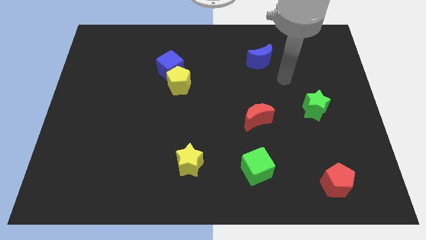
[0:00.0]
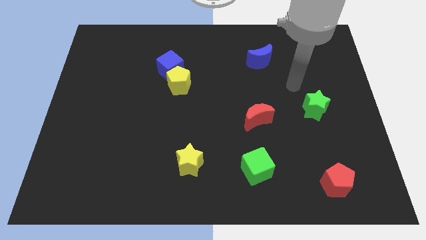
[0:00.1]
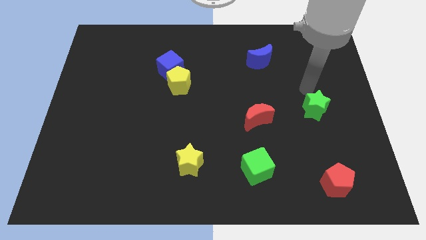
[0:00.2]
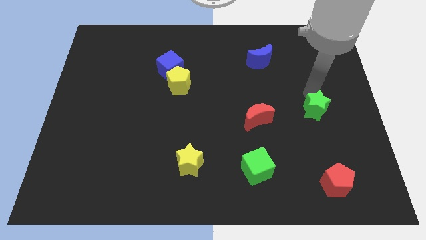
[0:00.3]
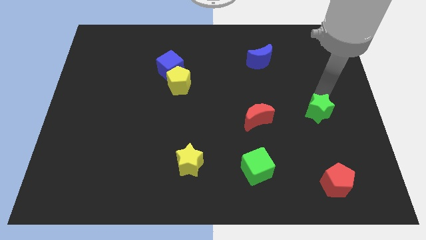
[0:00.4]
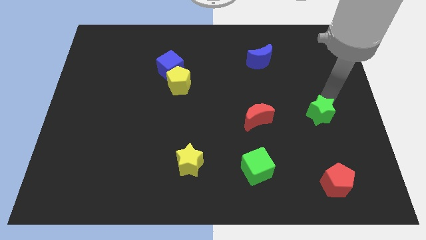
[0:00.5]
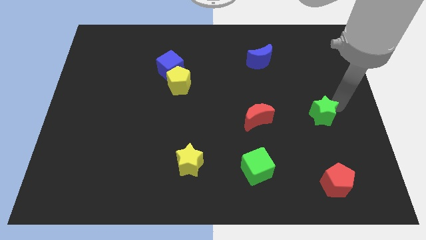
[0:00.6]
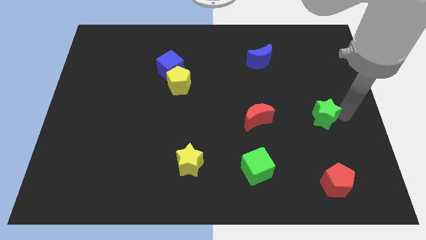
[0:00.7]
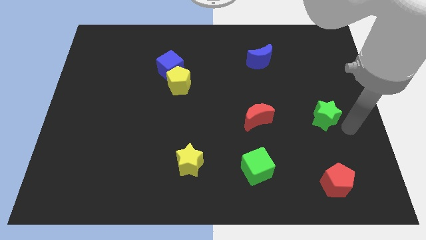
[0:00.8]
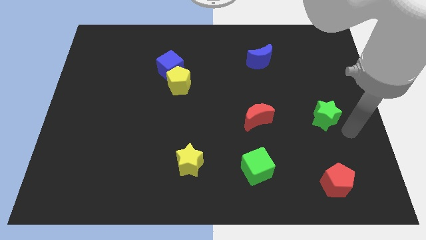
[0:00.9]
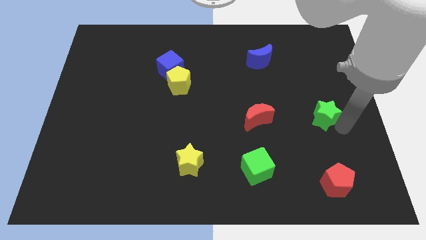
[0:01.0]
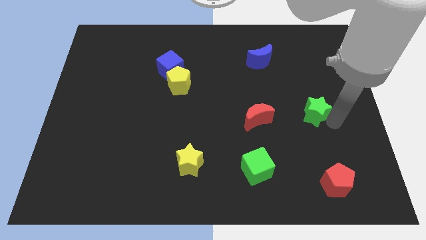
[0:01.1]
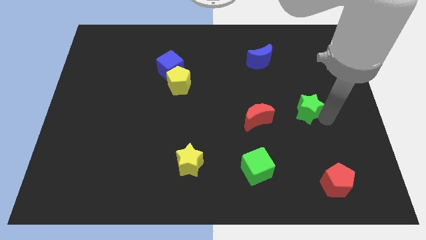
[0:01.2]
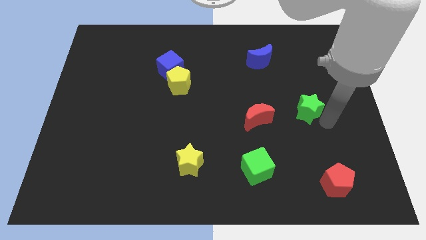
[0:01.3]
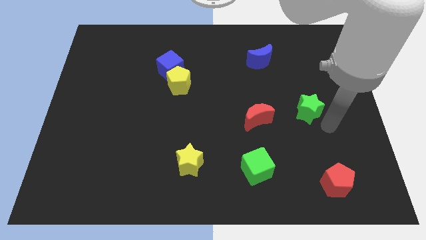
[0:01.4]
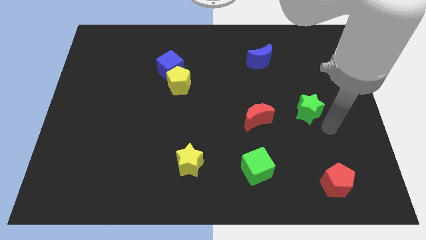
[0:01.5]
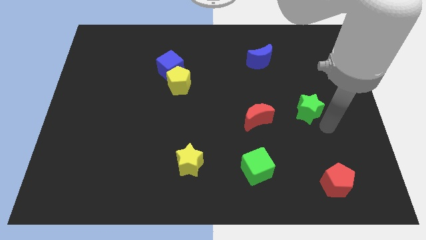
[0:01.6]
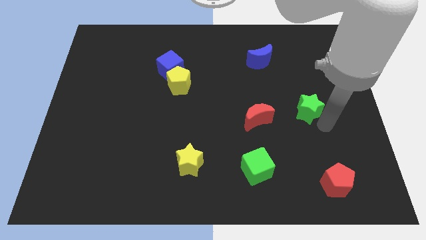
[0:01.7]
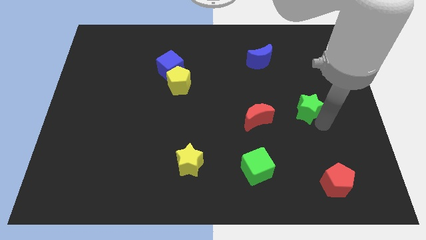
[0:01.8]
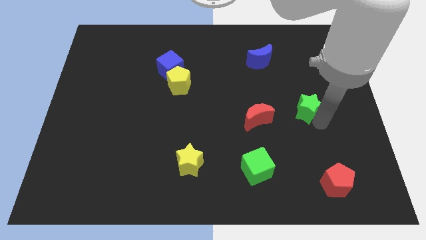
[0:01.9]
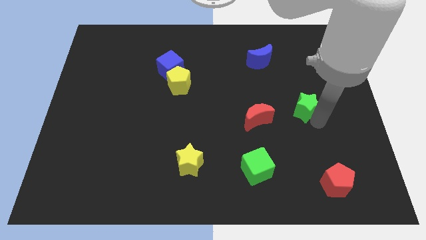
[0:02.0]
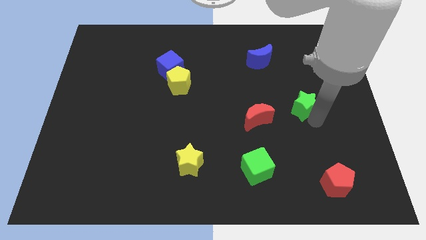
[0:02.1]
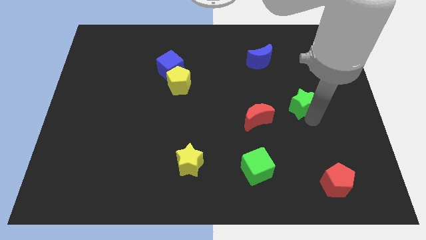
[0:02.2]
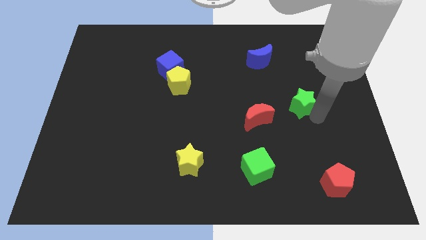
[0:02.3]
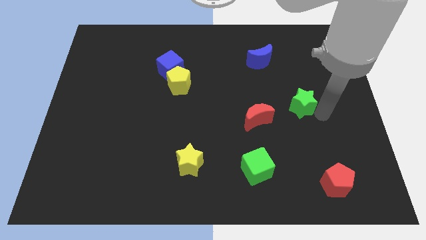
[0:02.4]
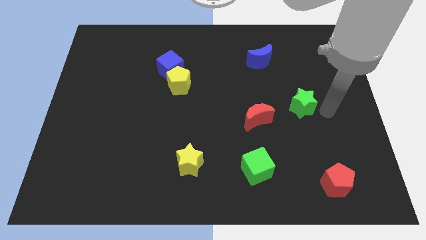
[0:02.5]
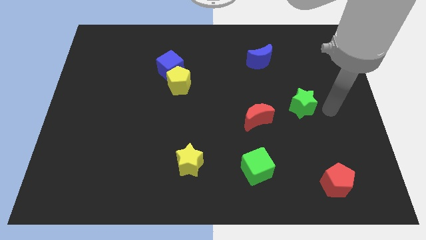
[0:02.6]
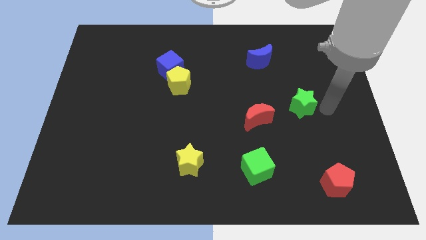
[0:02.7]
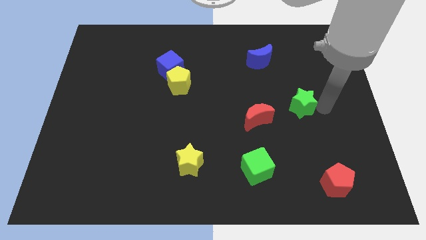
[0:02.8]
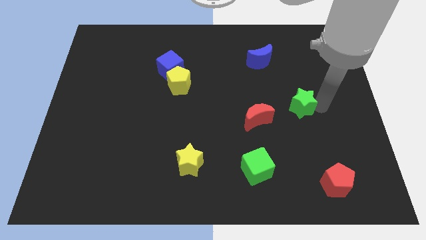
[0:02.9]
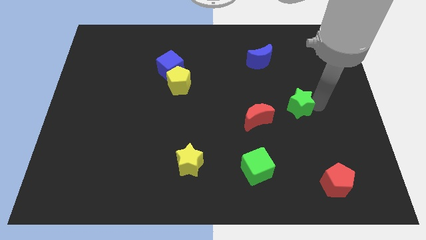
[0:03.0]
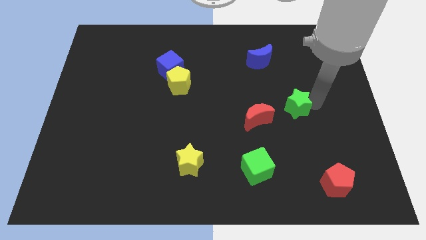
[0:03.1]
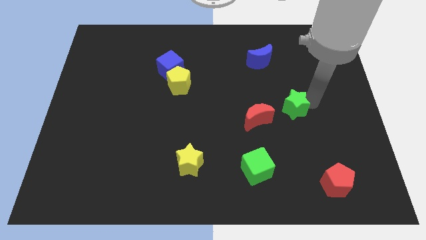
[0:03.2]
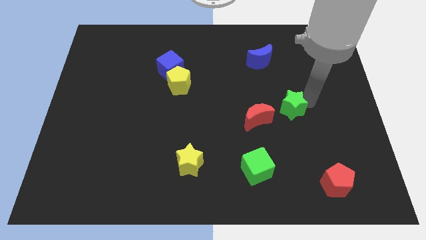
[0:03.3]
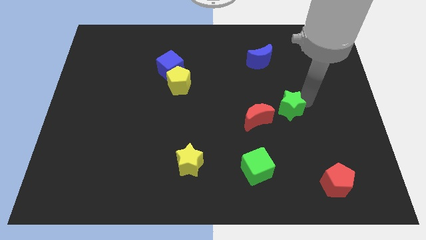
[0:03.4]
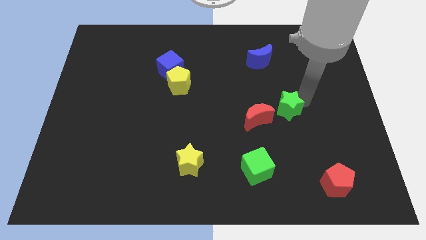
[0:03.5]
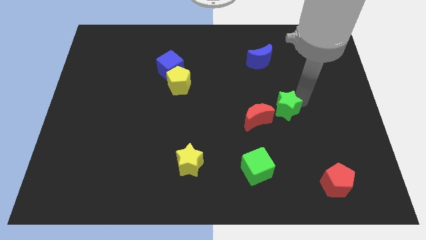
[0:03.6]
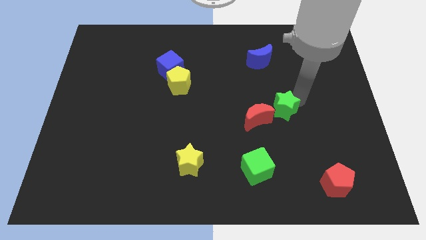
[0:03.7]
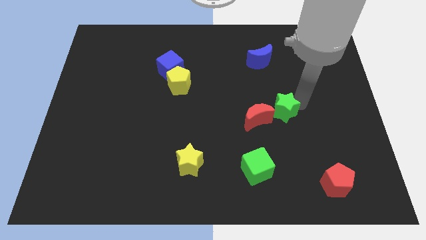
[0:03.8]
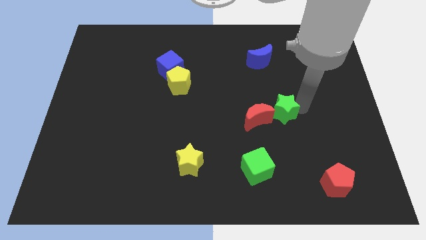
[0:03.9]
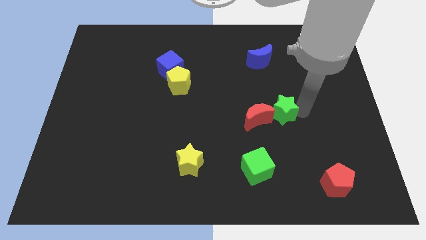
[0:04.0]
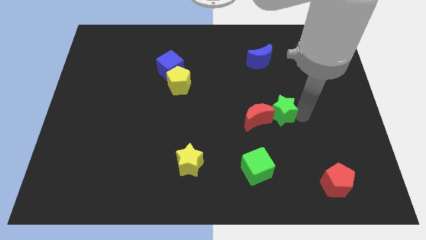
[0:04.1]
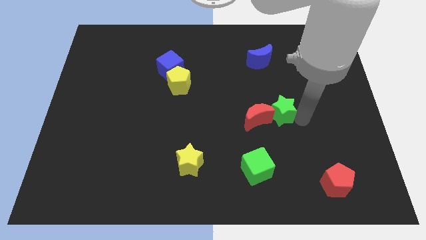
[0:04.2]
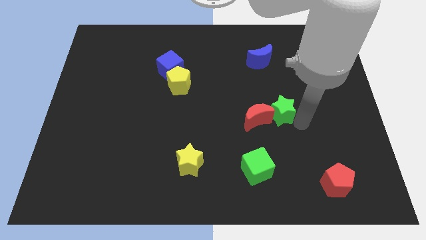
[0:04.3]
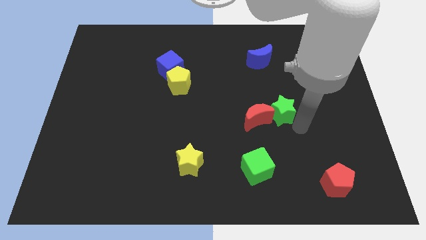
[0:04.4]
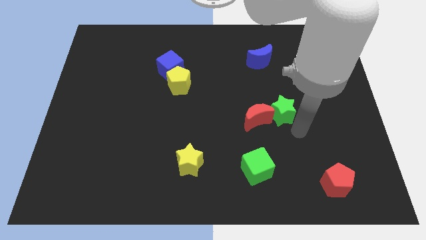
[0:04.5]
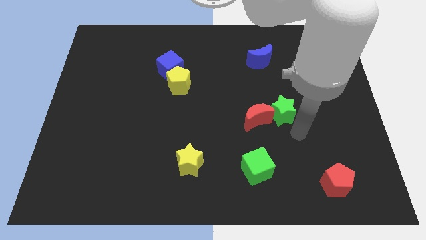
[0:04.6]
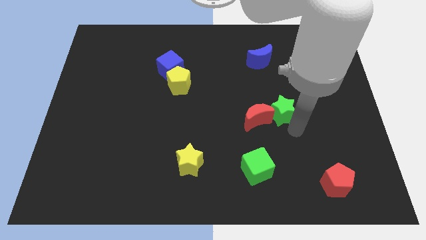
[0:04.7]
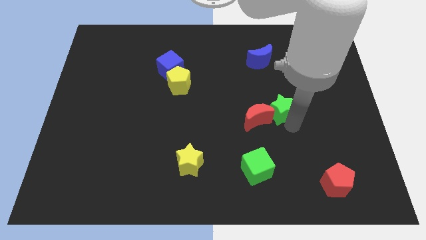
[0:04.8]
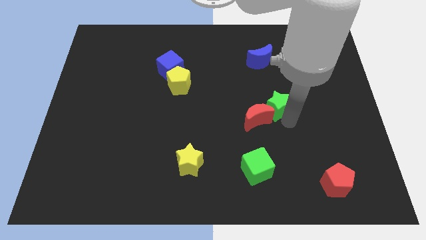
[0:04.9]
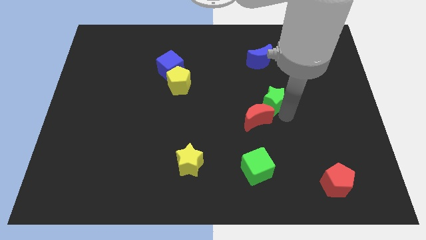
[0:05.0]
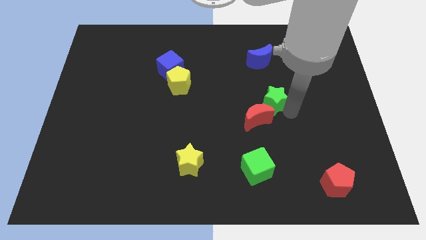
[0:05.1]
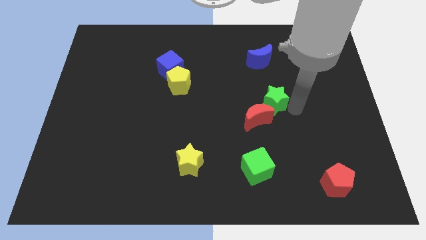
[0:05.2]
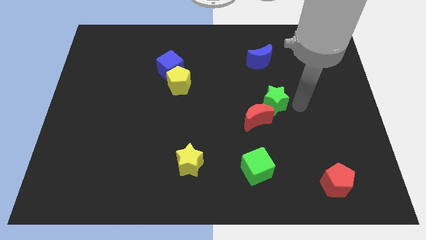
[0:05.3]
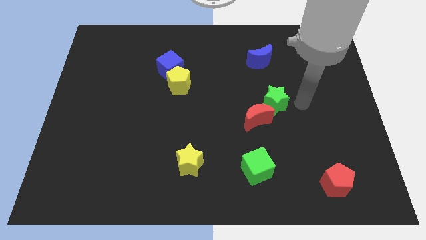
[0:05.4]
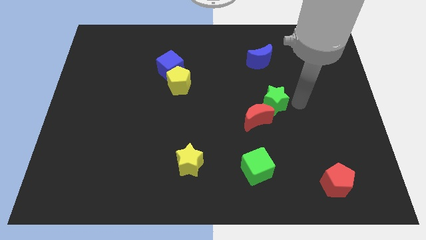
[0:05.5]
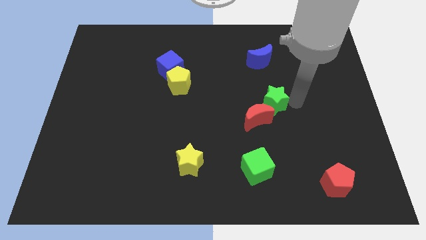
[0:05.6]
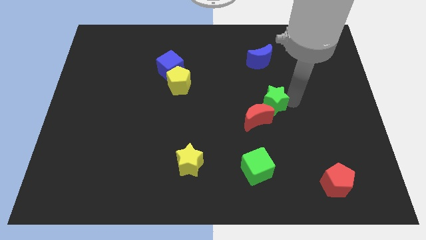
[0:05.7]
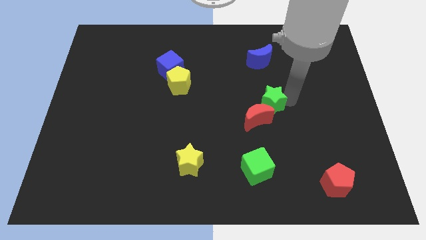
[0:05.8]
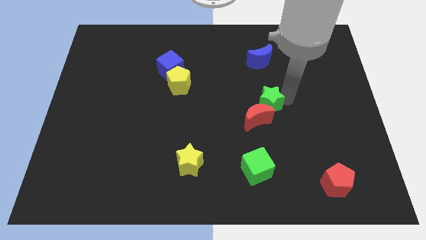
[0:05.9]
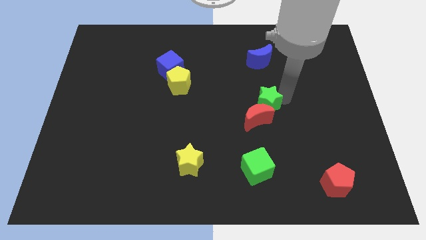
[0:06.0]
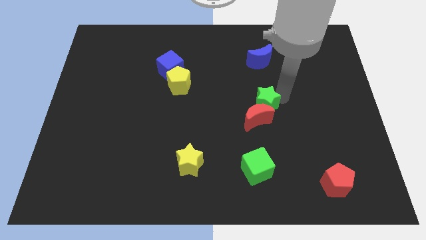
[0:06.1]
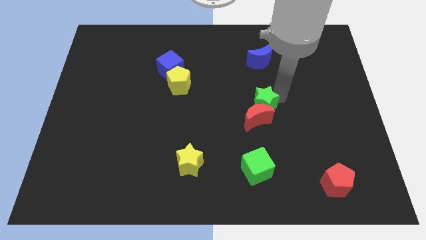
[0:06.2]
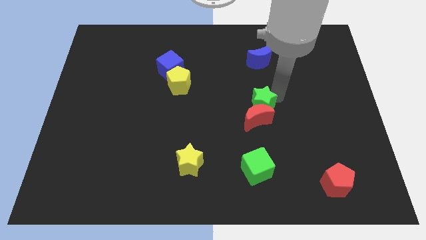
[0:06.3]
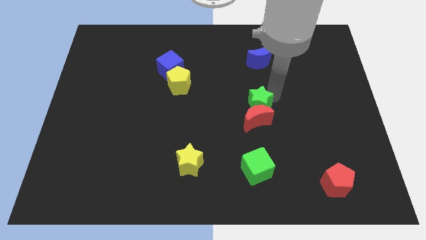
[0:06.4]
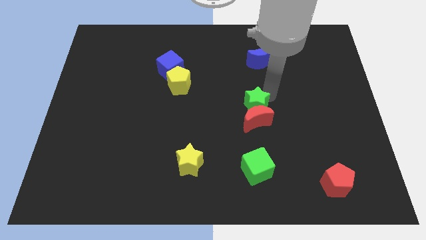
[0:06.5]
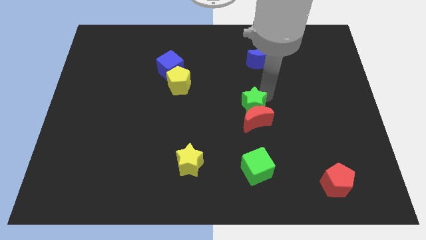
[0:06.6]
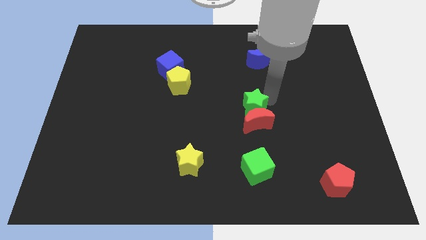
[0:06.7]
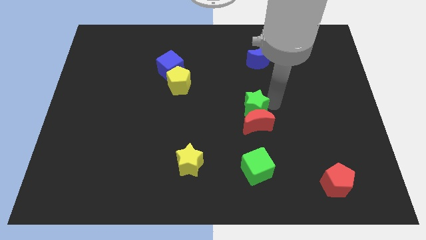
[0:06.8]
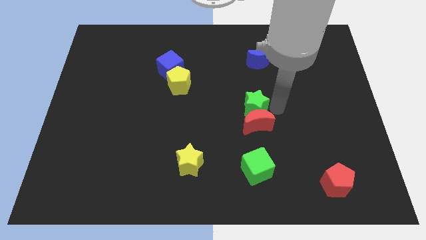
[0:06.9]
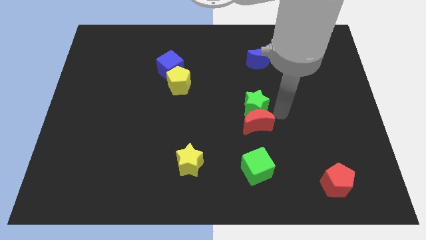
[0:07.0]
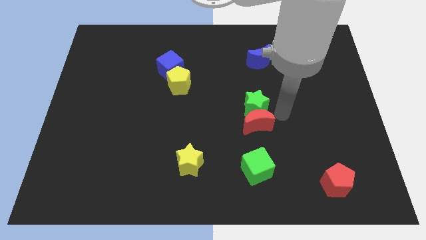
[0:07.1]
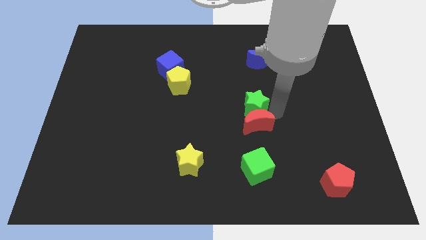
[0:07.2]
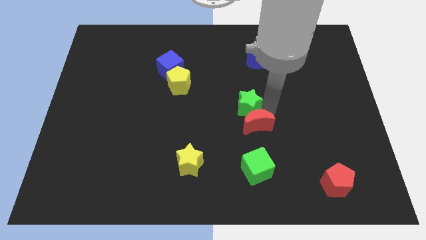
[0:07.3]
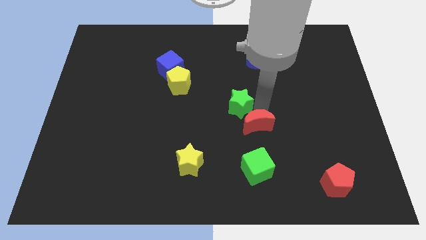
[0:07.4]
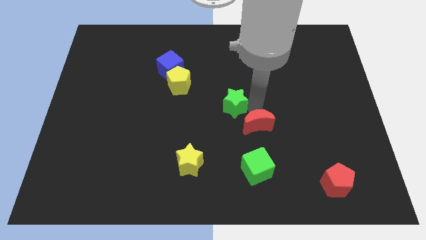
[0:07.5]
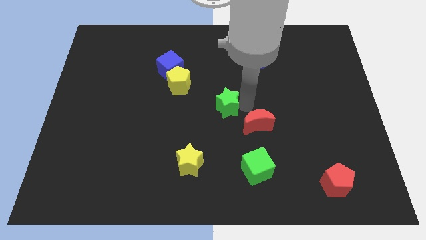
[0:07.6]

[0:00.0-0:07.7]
slide the green star left

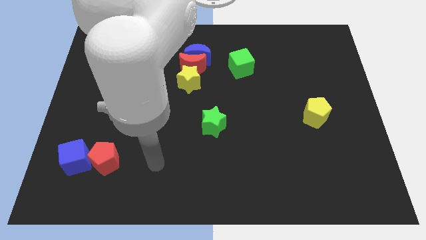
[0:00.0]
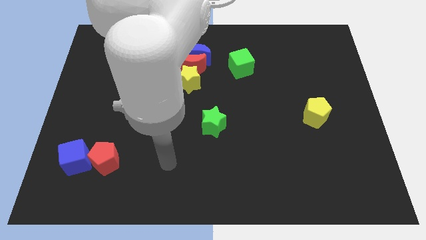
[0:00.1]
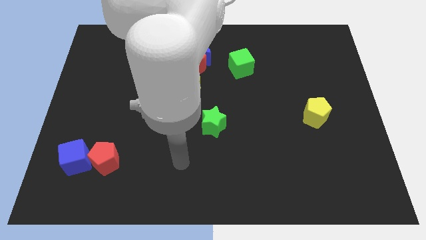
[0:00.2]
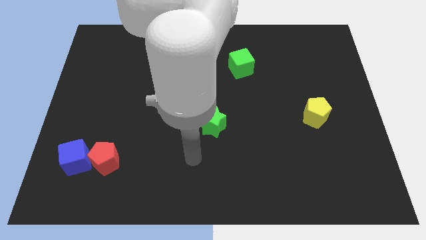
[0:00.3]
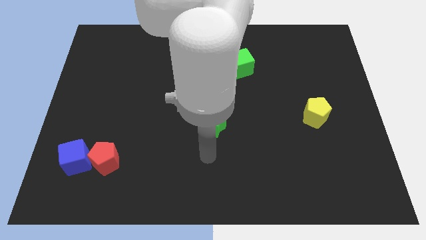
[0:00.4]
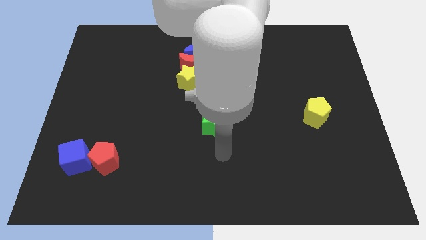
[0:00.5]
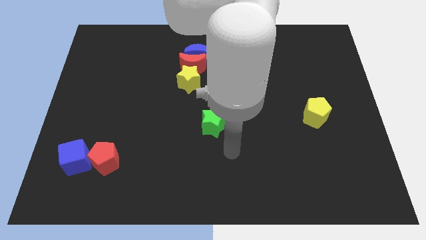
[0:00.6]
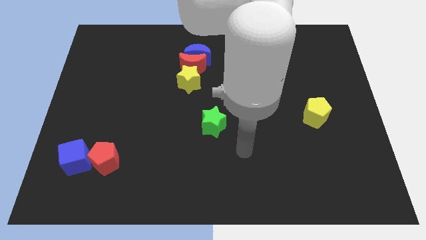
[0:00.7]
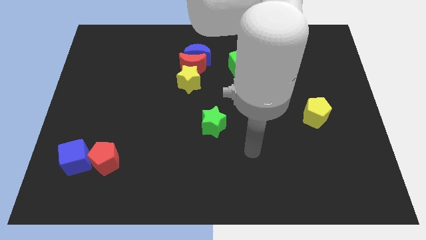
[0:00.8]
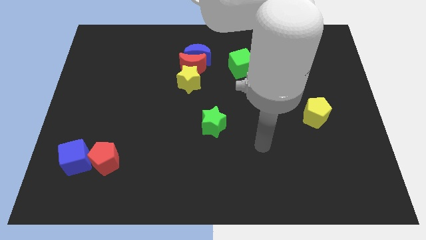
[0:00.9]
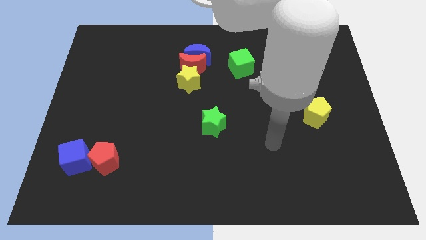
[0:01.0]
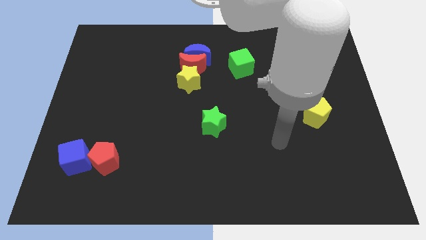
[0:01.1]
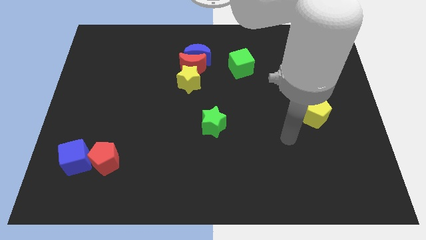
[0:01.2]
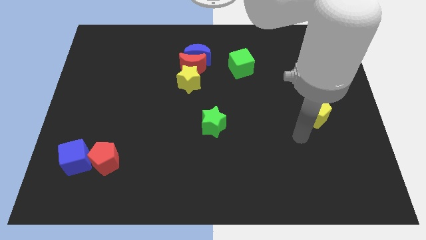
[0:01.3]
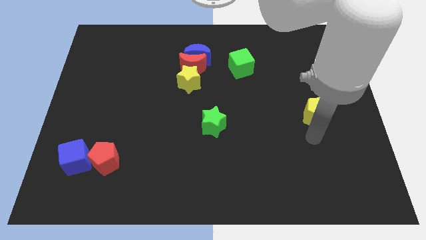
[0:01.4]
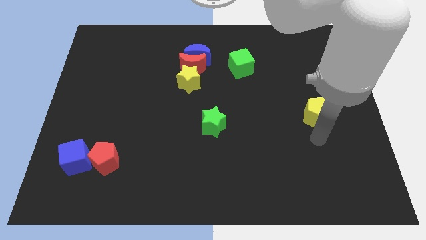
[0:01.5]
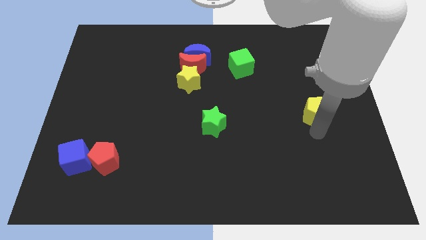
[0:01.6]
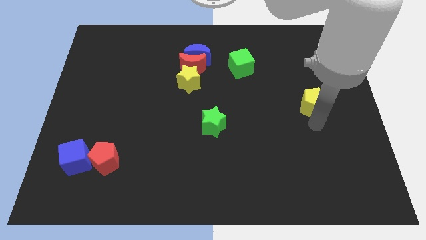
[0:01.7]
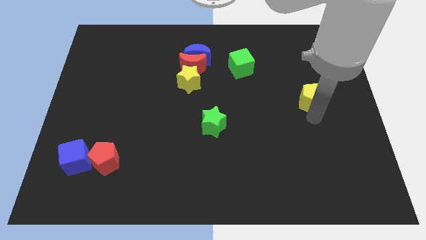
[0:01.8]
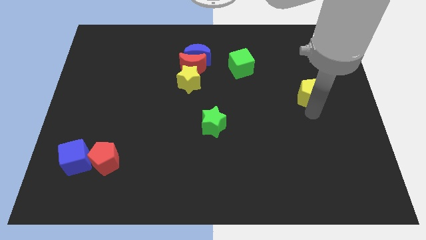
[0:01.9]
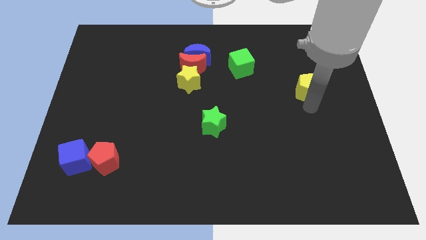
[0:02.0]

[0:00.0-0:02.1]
push the yellow pentagon upwards a little
